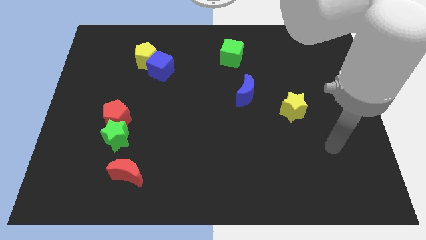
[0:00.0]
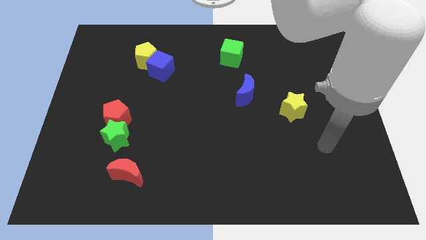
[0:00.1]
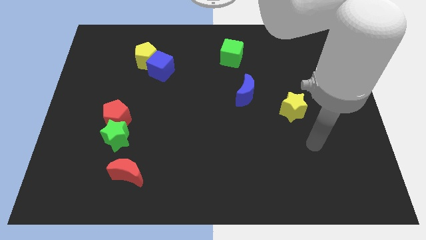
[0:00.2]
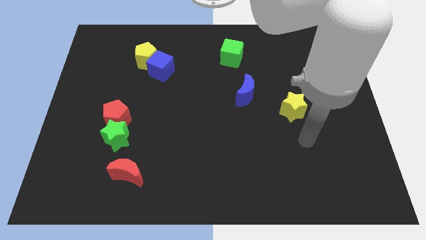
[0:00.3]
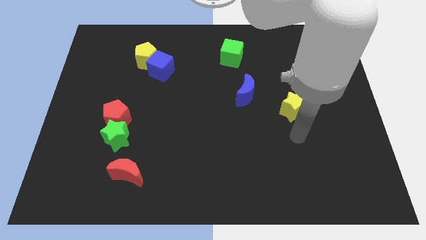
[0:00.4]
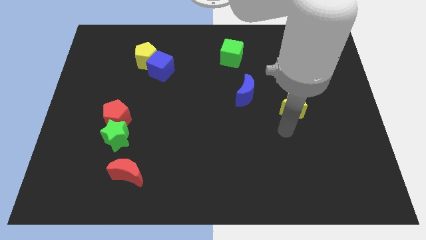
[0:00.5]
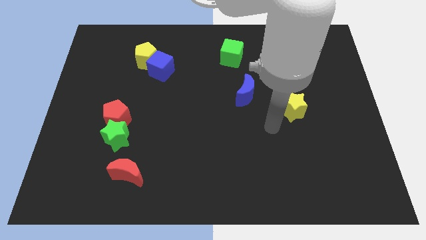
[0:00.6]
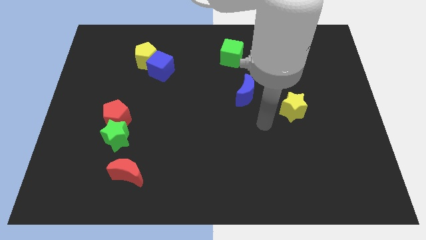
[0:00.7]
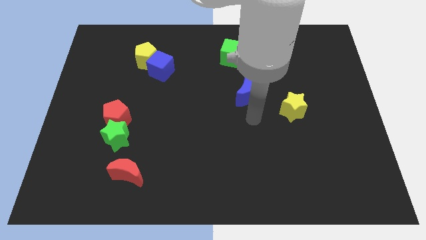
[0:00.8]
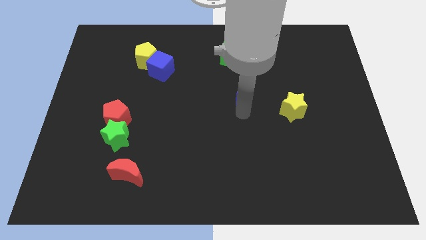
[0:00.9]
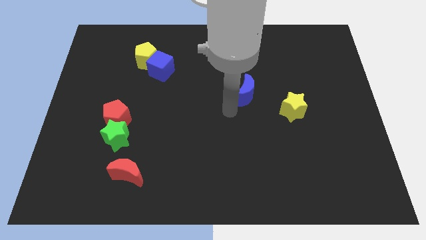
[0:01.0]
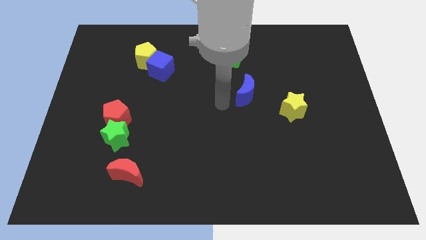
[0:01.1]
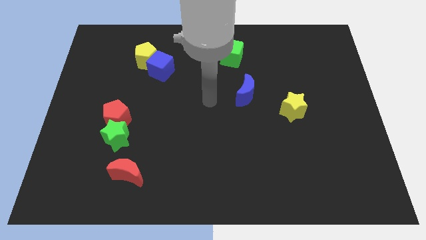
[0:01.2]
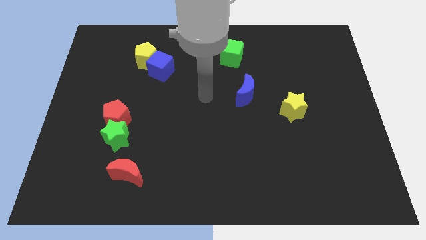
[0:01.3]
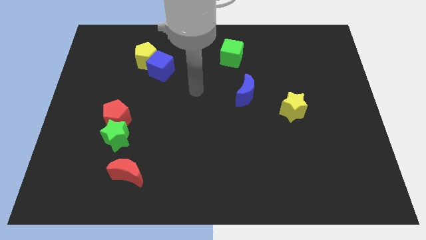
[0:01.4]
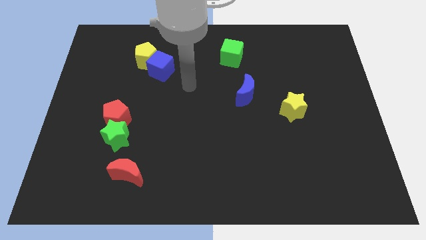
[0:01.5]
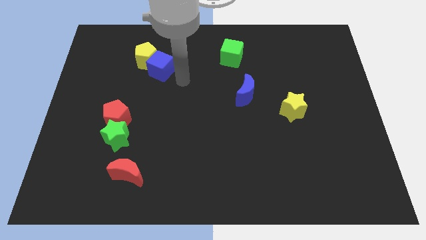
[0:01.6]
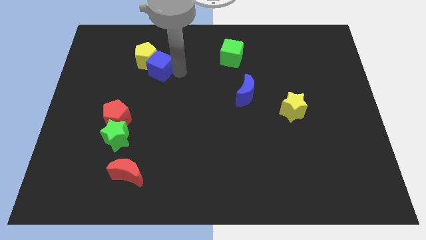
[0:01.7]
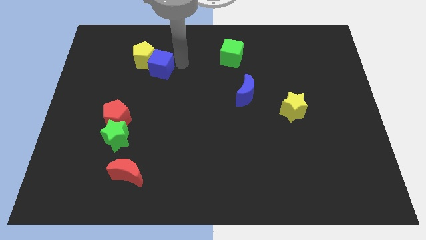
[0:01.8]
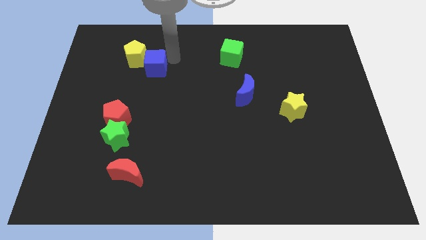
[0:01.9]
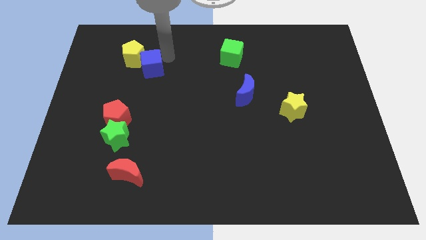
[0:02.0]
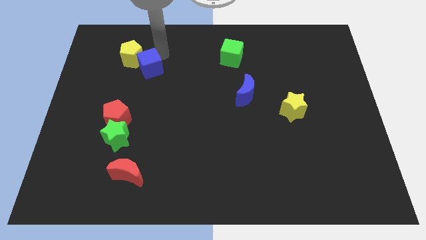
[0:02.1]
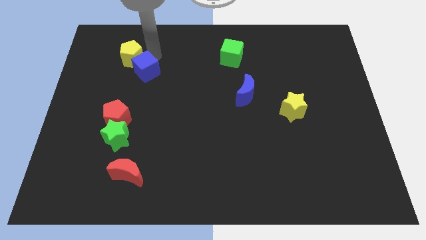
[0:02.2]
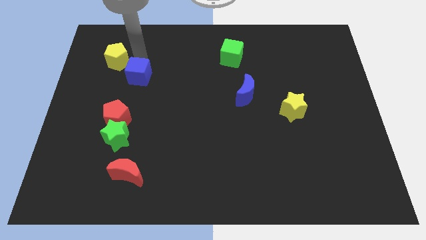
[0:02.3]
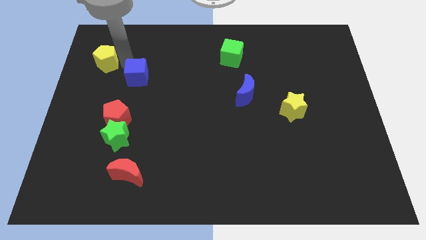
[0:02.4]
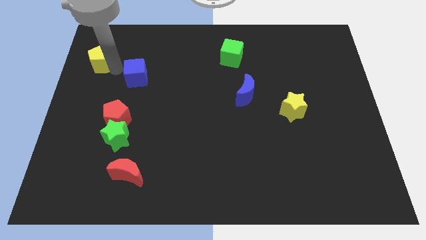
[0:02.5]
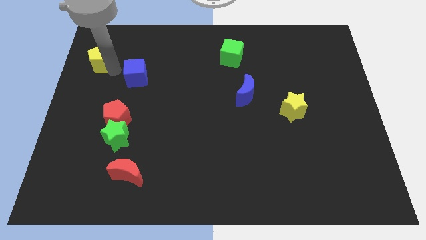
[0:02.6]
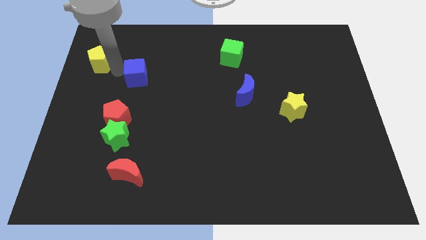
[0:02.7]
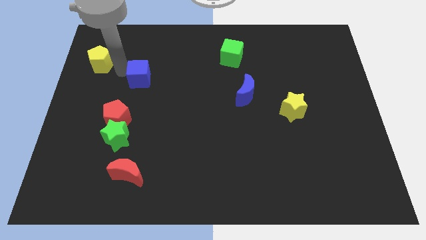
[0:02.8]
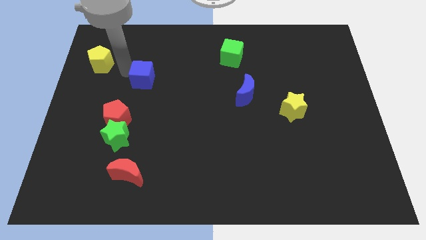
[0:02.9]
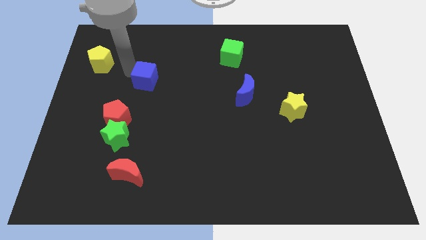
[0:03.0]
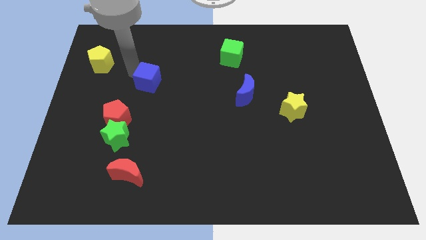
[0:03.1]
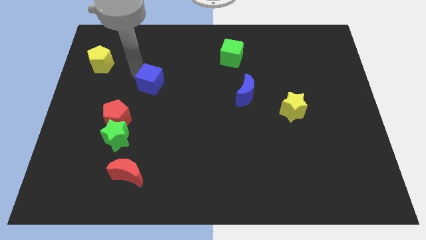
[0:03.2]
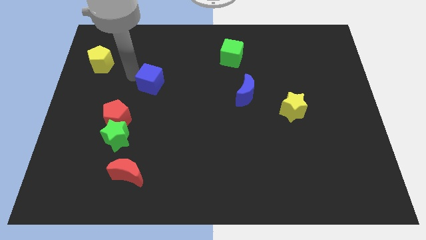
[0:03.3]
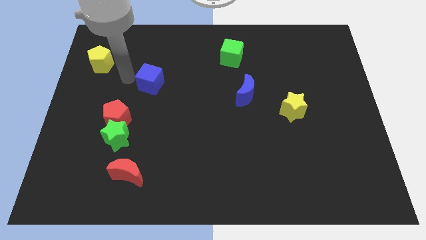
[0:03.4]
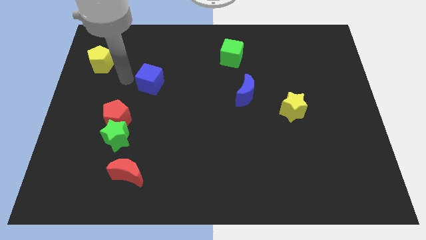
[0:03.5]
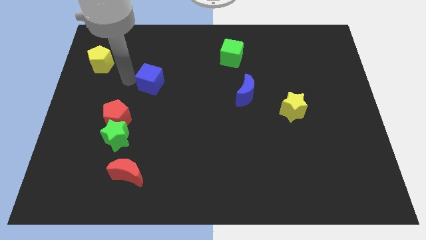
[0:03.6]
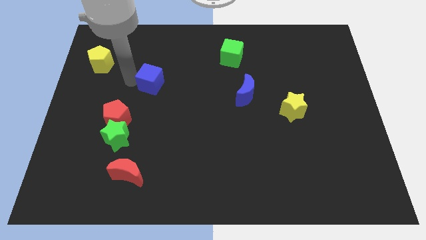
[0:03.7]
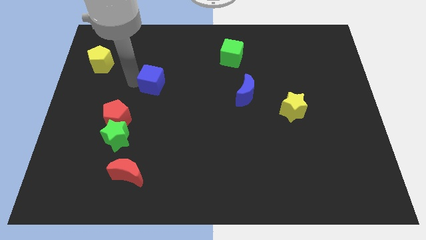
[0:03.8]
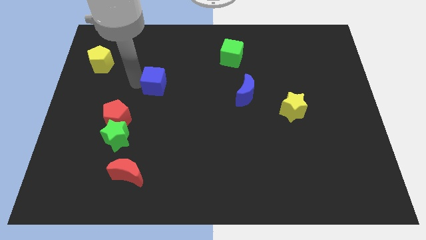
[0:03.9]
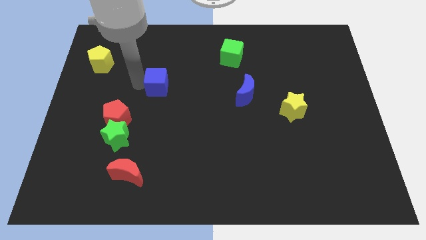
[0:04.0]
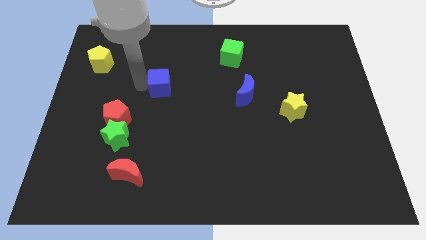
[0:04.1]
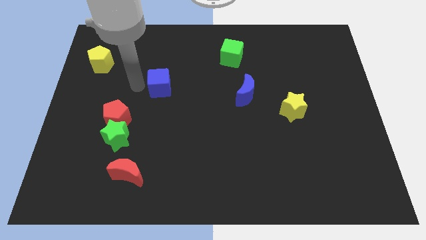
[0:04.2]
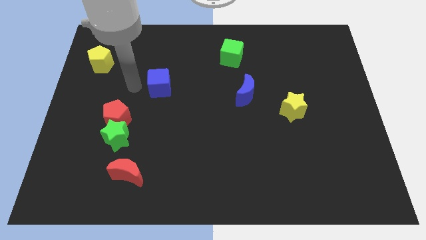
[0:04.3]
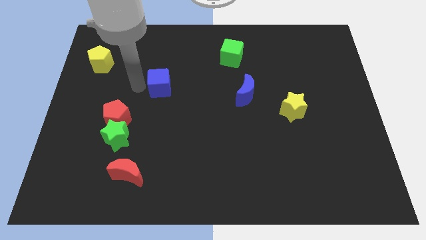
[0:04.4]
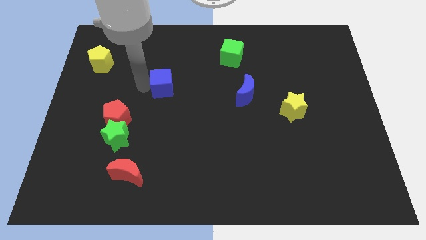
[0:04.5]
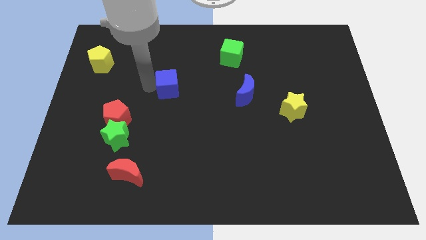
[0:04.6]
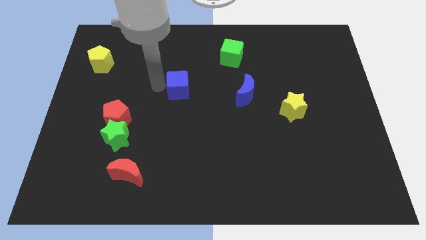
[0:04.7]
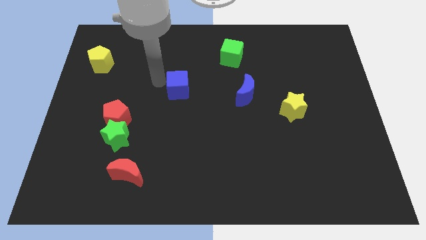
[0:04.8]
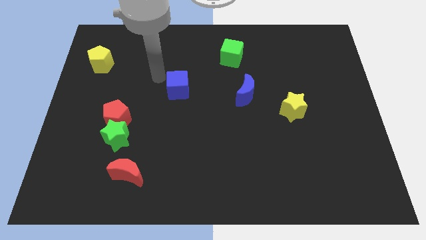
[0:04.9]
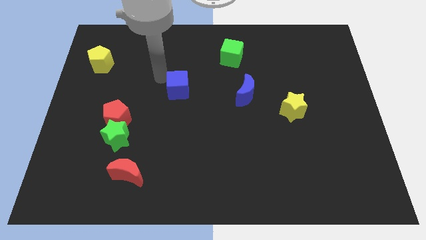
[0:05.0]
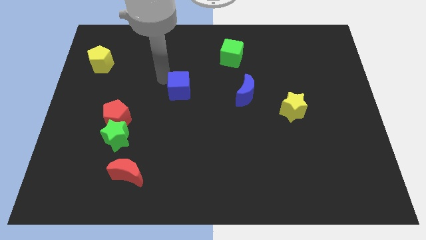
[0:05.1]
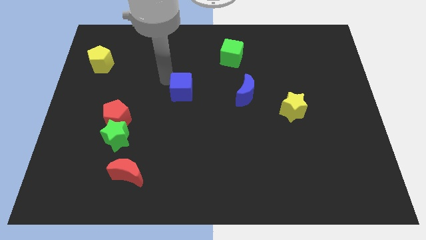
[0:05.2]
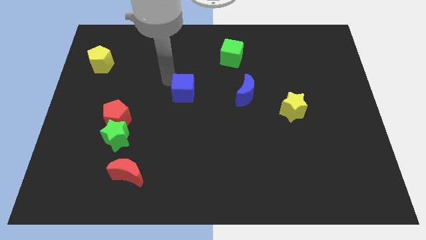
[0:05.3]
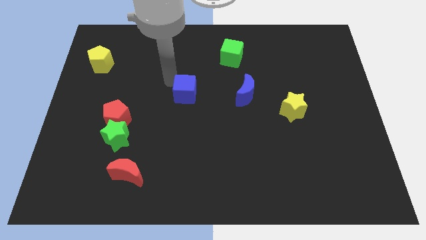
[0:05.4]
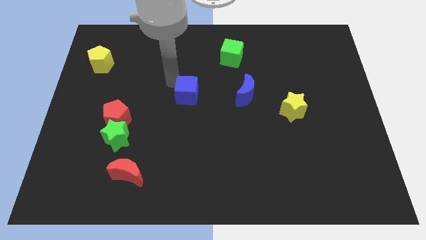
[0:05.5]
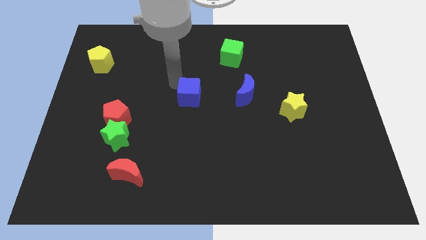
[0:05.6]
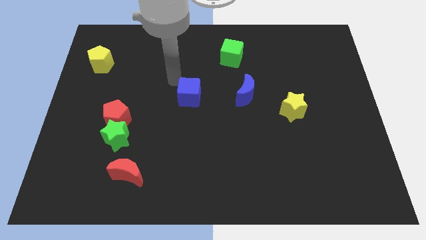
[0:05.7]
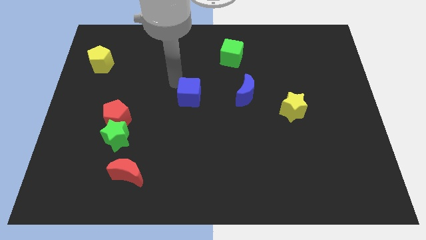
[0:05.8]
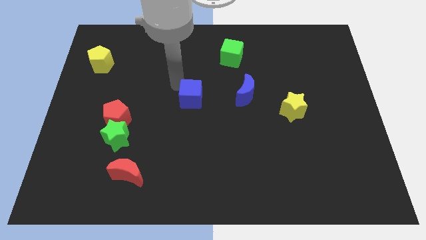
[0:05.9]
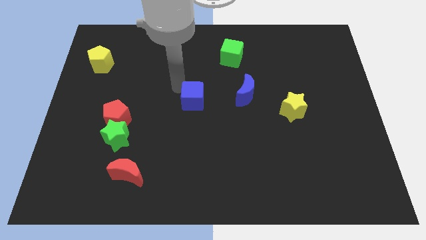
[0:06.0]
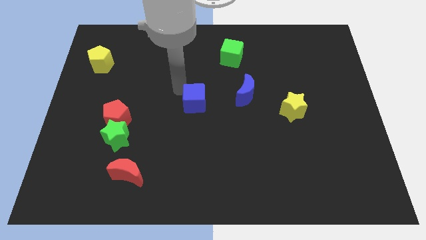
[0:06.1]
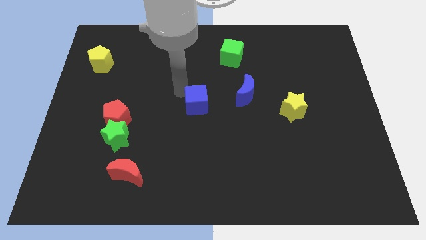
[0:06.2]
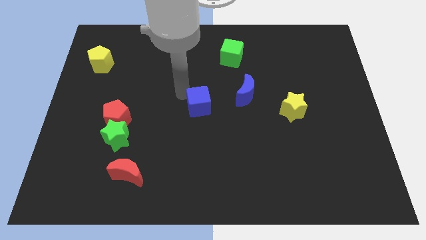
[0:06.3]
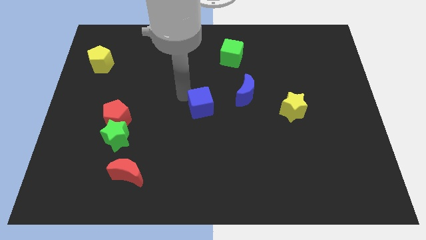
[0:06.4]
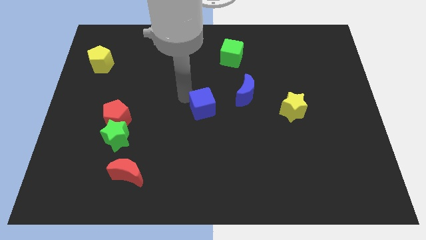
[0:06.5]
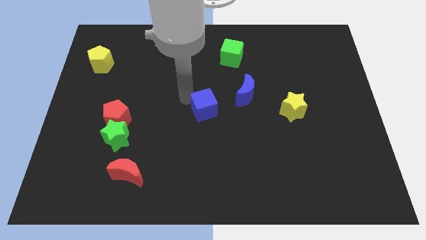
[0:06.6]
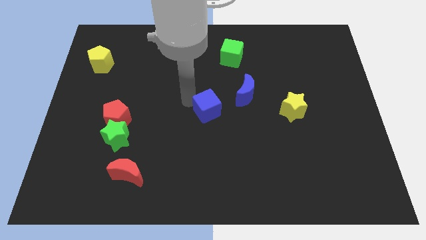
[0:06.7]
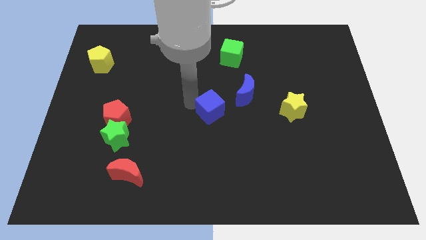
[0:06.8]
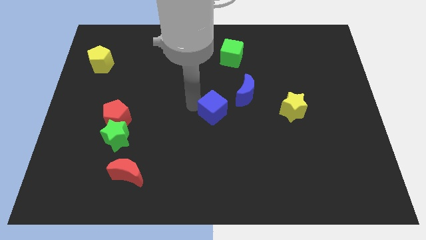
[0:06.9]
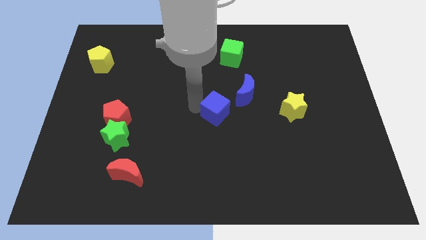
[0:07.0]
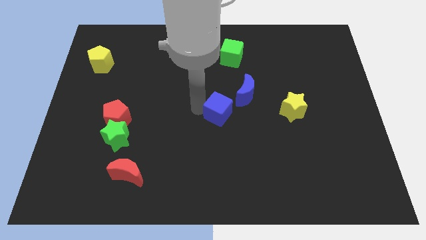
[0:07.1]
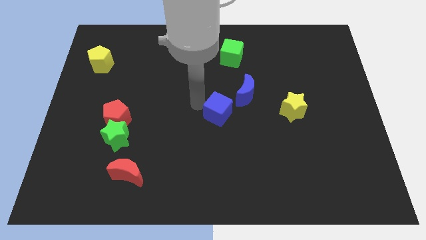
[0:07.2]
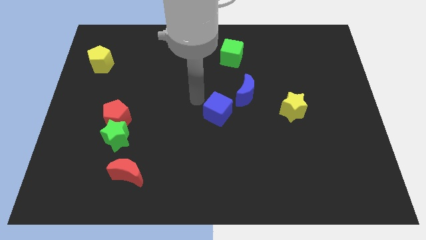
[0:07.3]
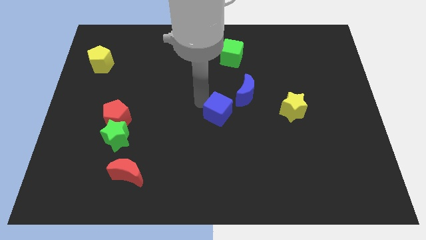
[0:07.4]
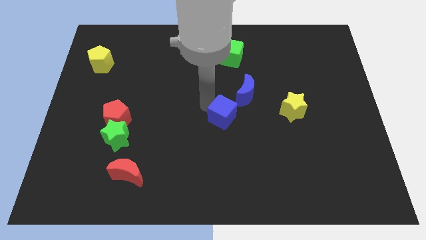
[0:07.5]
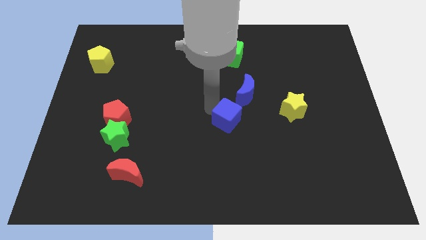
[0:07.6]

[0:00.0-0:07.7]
slide the blue cube left of the yellow star
